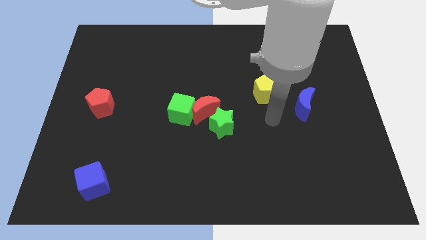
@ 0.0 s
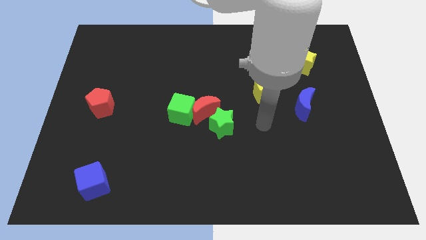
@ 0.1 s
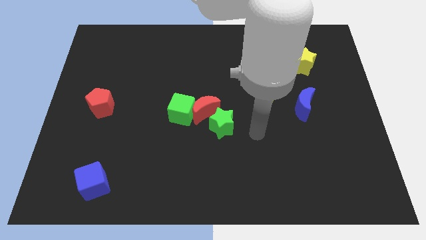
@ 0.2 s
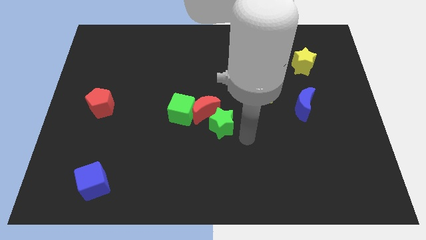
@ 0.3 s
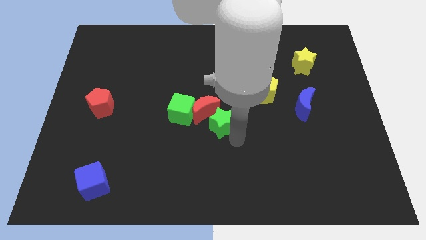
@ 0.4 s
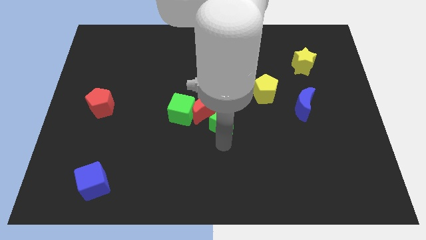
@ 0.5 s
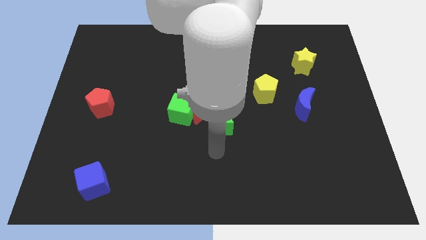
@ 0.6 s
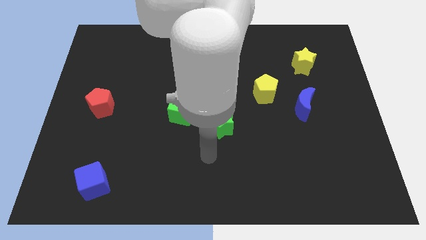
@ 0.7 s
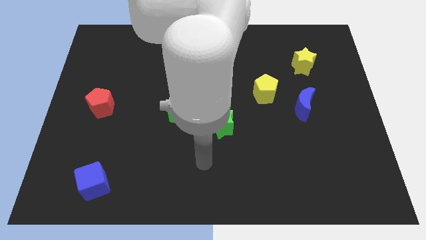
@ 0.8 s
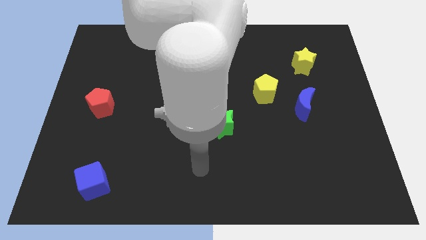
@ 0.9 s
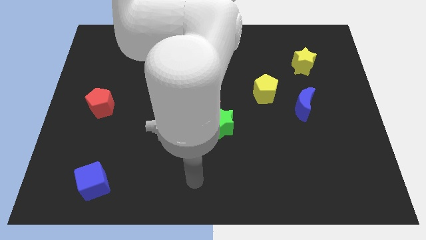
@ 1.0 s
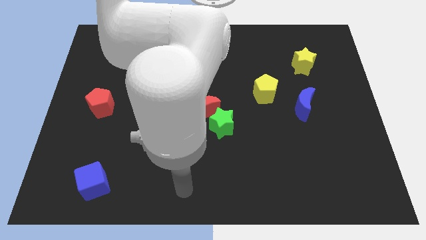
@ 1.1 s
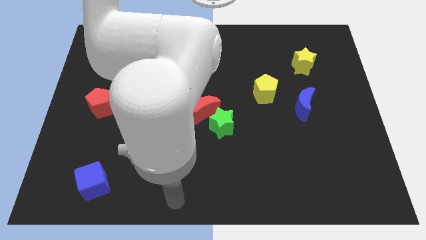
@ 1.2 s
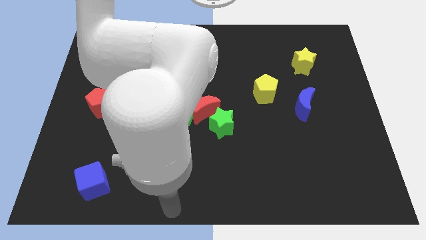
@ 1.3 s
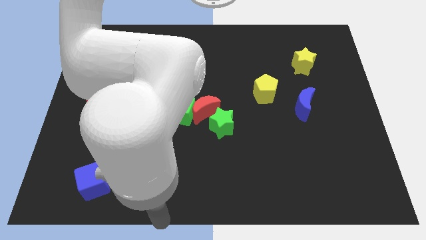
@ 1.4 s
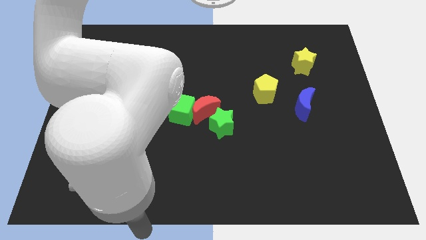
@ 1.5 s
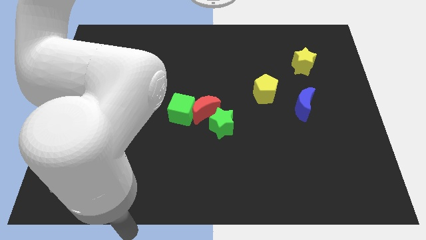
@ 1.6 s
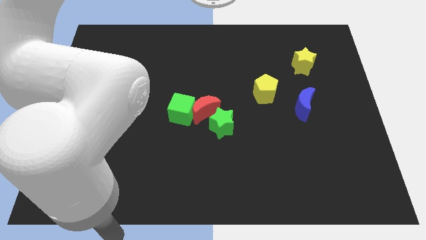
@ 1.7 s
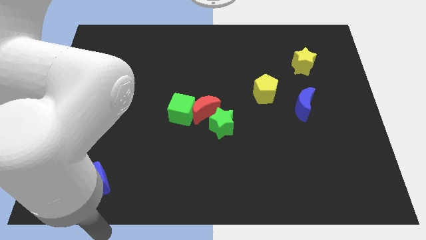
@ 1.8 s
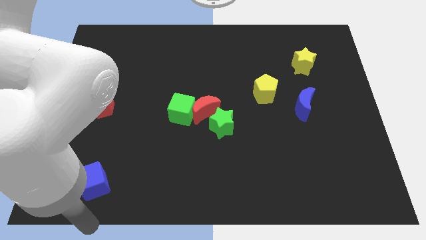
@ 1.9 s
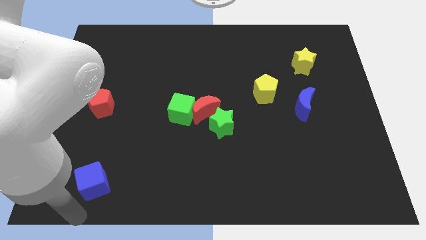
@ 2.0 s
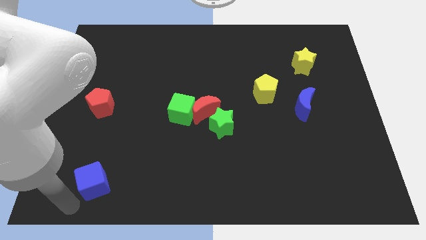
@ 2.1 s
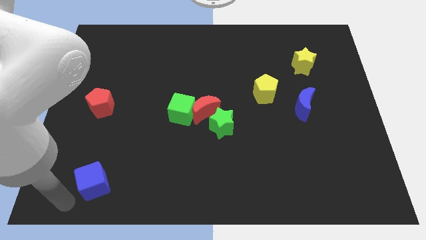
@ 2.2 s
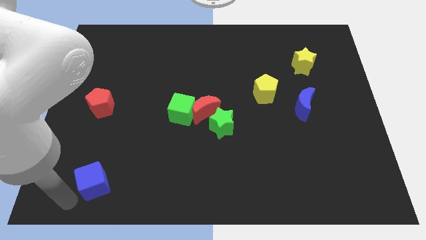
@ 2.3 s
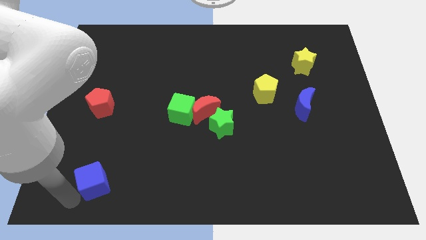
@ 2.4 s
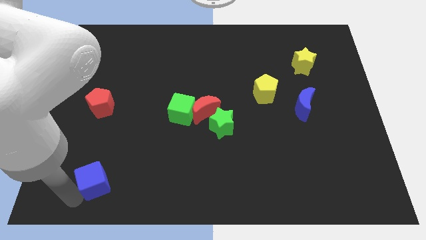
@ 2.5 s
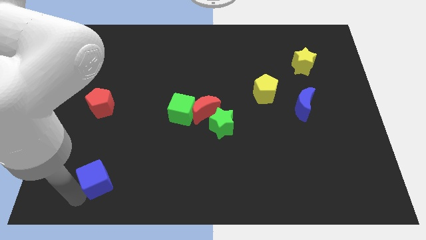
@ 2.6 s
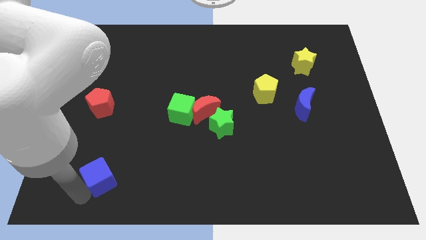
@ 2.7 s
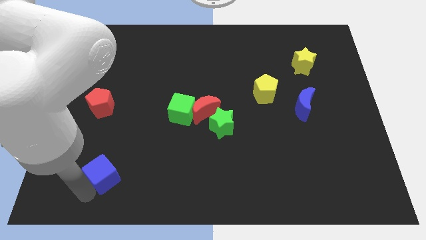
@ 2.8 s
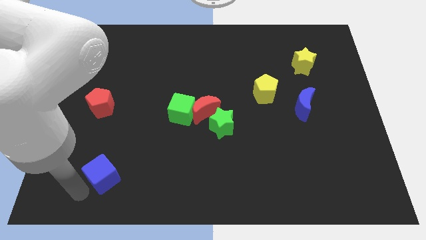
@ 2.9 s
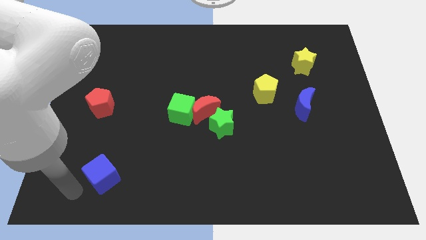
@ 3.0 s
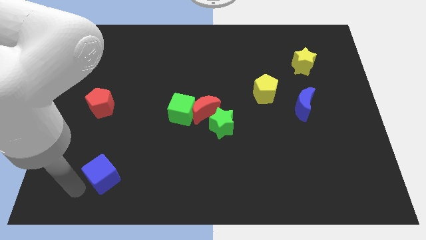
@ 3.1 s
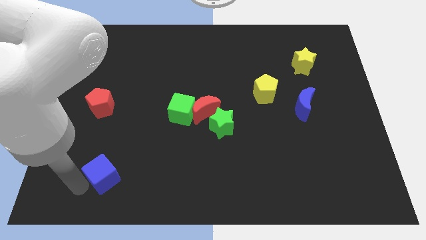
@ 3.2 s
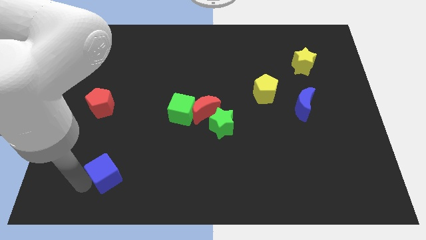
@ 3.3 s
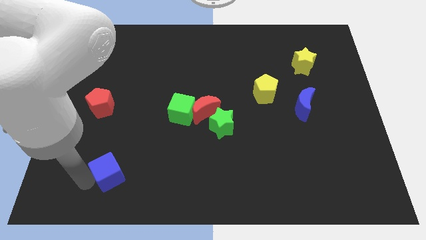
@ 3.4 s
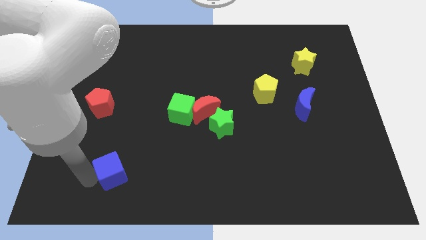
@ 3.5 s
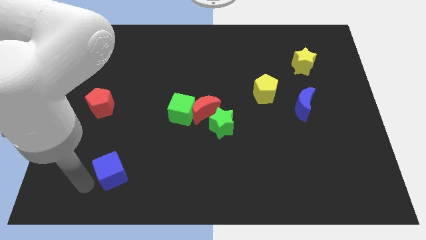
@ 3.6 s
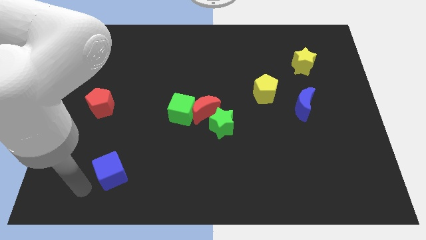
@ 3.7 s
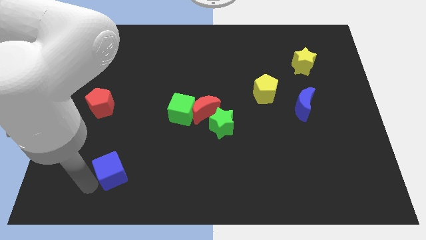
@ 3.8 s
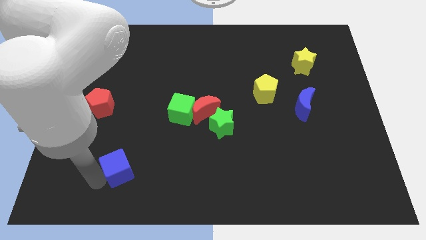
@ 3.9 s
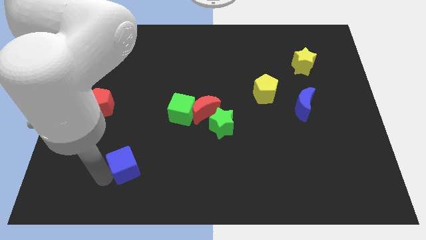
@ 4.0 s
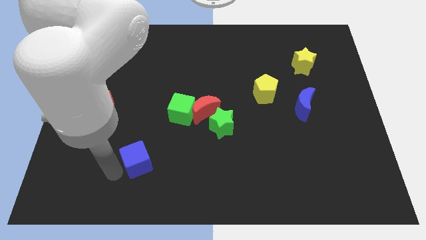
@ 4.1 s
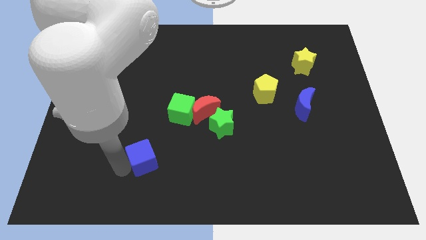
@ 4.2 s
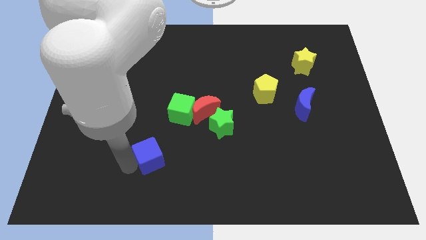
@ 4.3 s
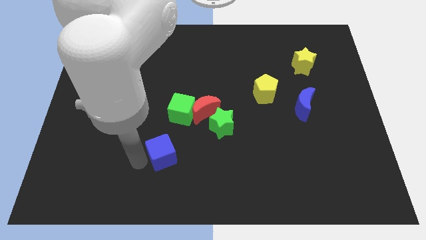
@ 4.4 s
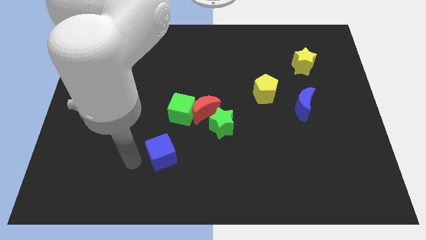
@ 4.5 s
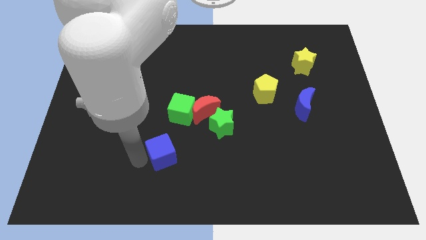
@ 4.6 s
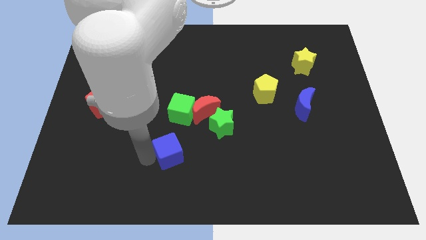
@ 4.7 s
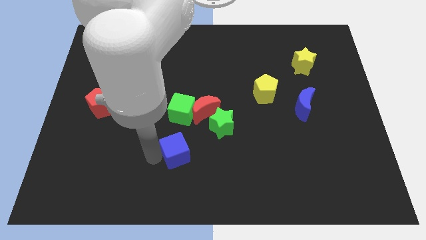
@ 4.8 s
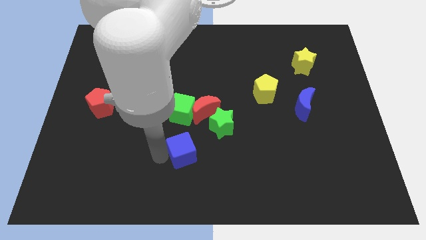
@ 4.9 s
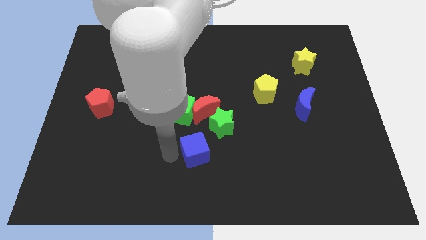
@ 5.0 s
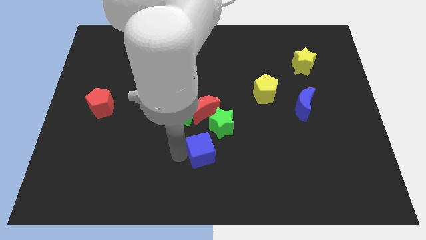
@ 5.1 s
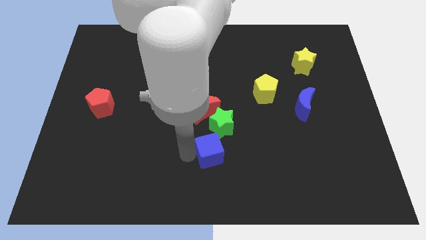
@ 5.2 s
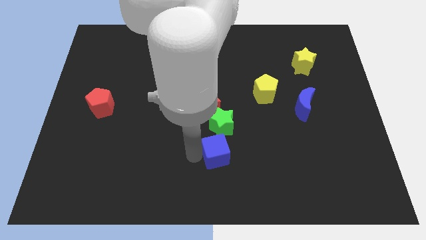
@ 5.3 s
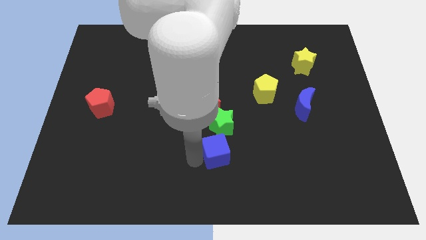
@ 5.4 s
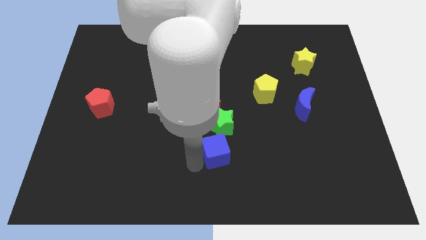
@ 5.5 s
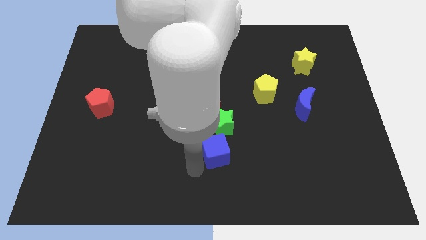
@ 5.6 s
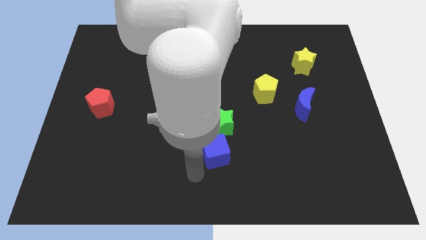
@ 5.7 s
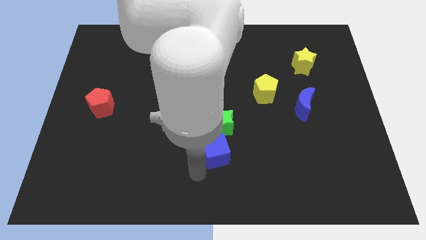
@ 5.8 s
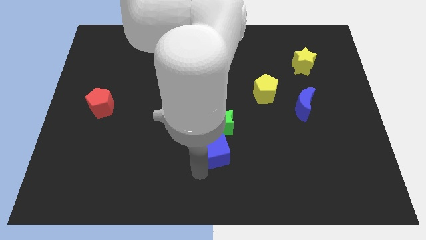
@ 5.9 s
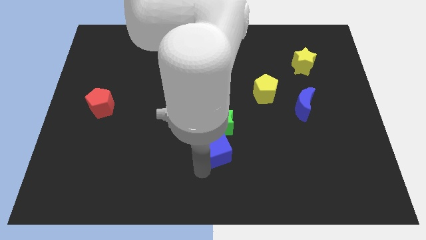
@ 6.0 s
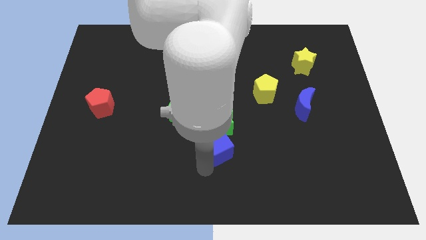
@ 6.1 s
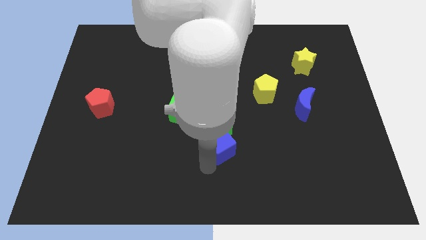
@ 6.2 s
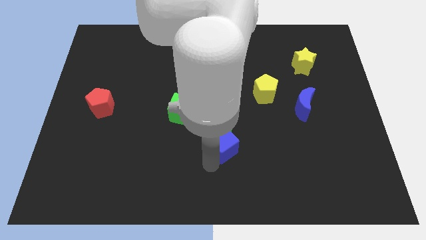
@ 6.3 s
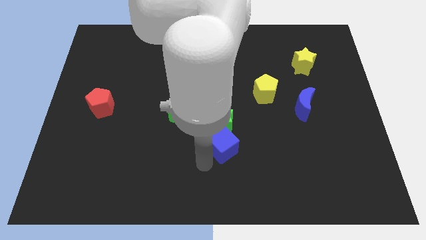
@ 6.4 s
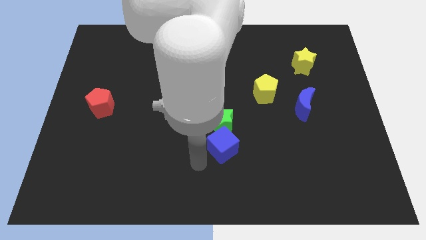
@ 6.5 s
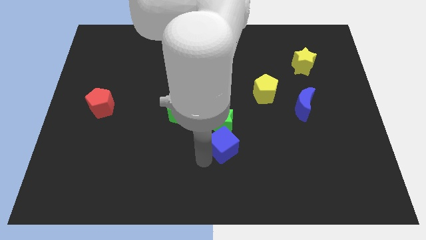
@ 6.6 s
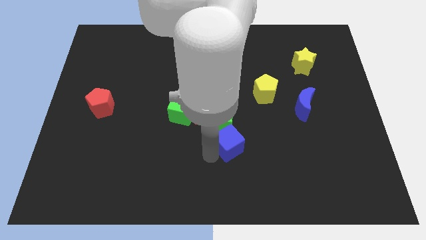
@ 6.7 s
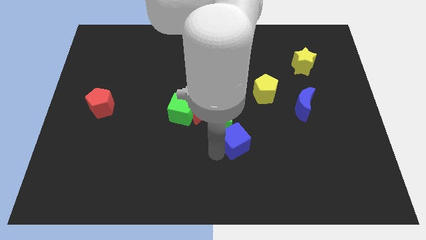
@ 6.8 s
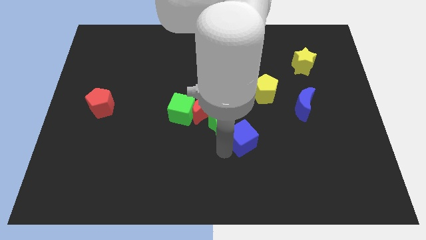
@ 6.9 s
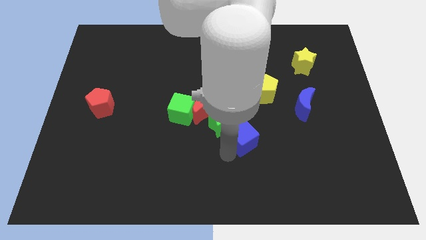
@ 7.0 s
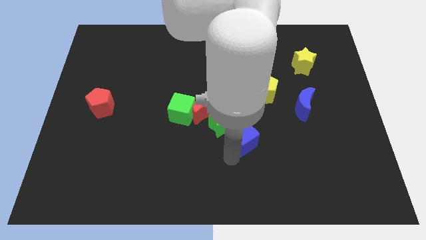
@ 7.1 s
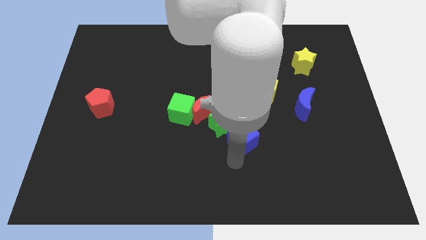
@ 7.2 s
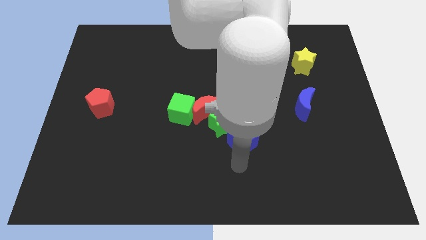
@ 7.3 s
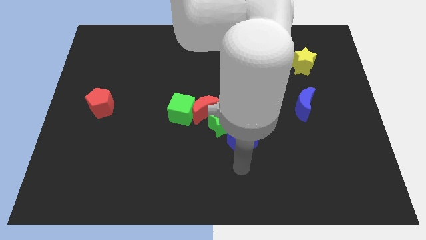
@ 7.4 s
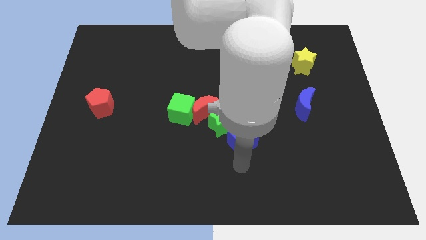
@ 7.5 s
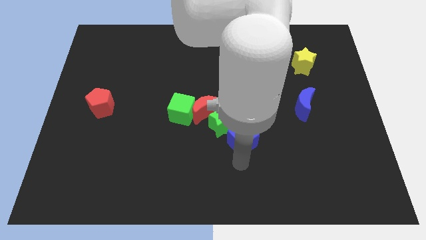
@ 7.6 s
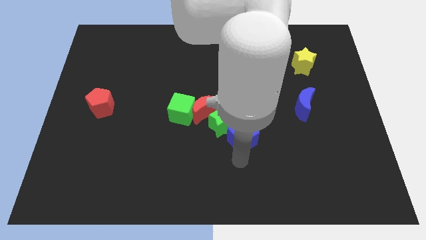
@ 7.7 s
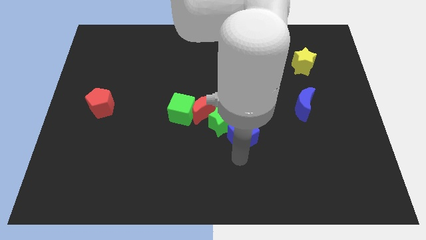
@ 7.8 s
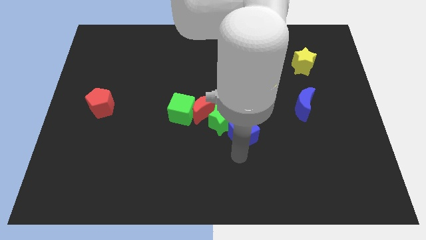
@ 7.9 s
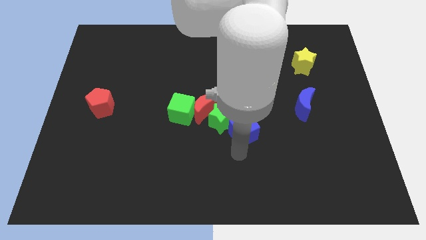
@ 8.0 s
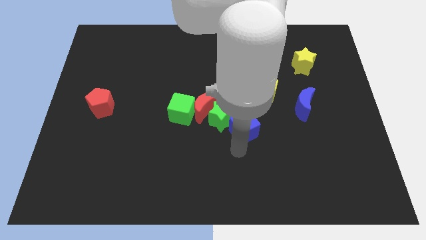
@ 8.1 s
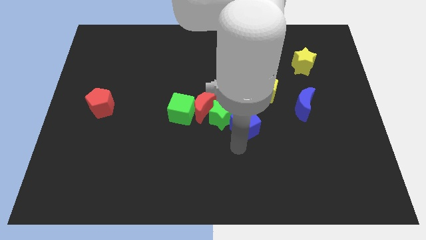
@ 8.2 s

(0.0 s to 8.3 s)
push the blue cube to the bottom left side of the yellow pentagon
